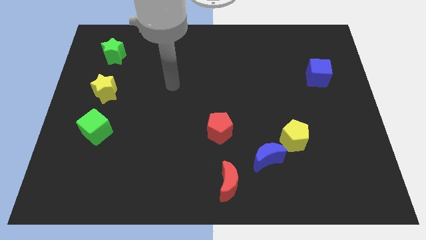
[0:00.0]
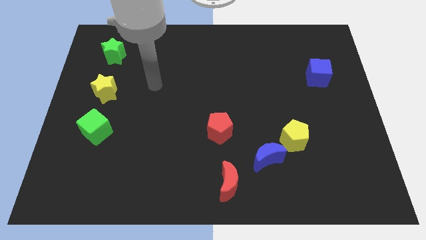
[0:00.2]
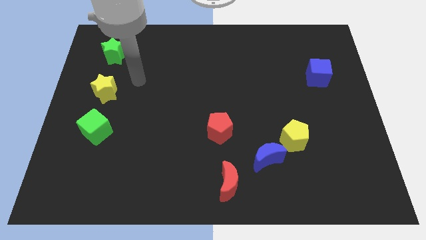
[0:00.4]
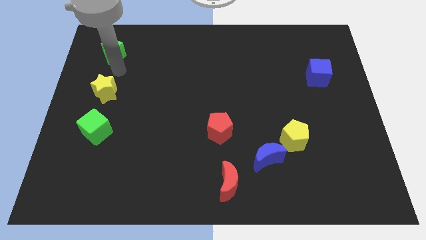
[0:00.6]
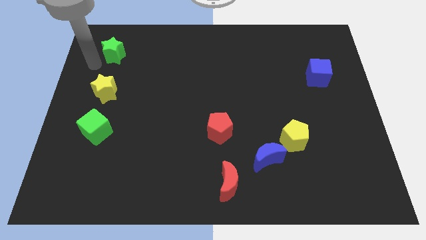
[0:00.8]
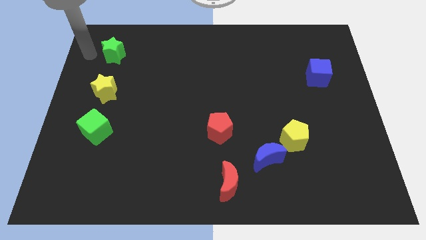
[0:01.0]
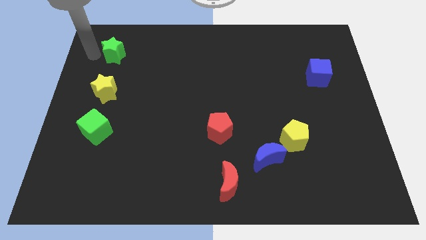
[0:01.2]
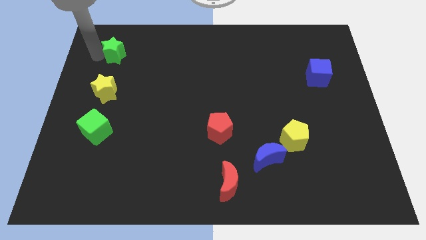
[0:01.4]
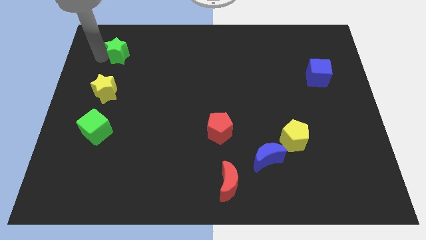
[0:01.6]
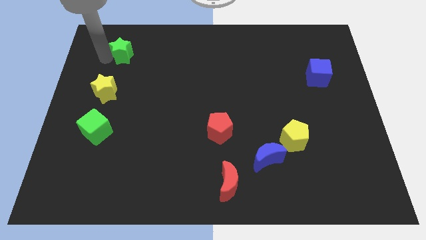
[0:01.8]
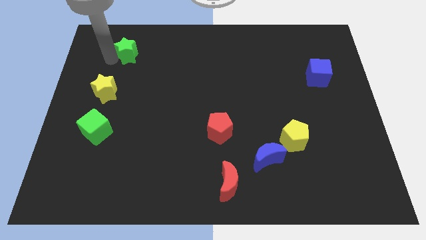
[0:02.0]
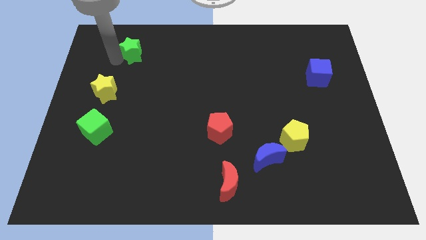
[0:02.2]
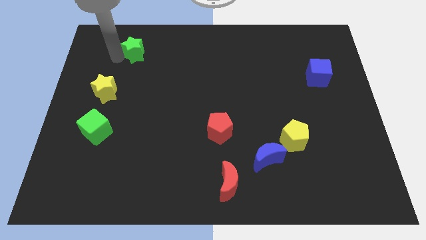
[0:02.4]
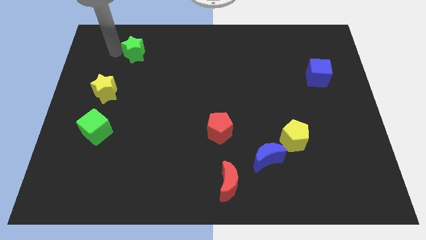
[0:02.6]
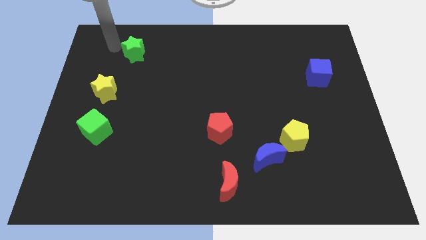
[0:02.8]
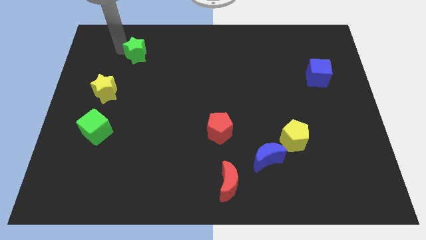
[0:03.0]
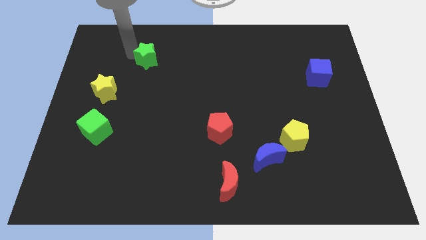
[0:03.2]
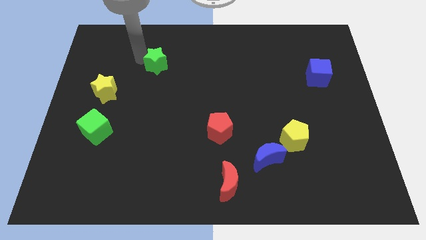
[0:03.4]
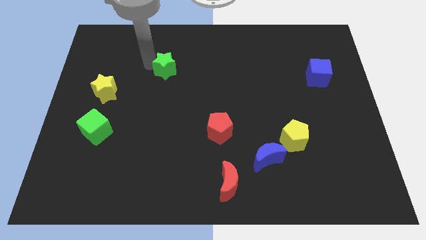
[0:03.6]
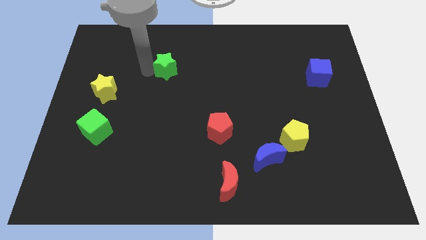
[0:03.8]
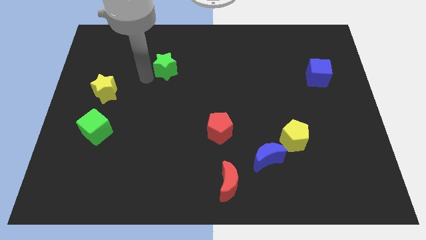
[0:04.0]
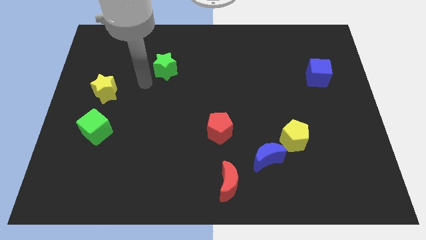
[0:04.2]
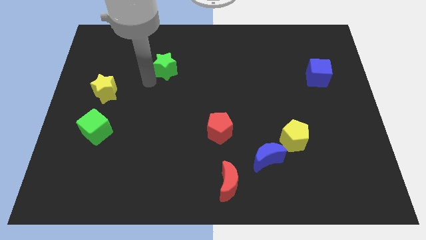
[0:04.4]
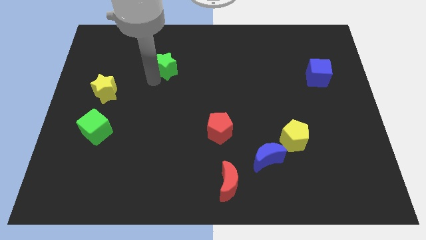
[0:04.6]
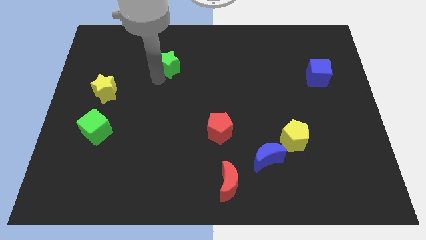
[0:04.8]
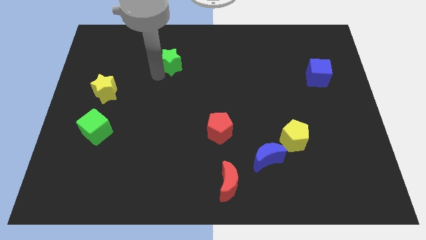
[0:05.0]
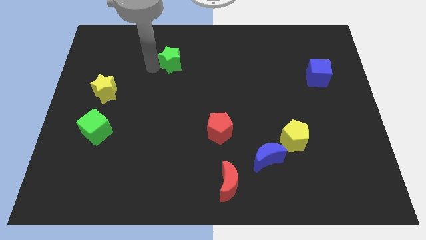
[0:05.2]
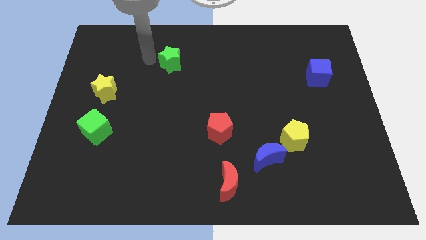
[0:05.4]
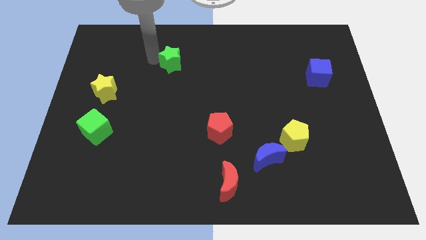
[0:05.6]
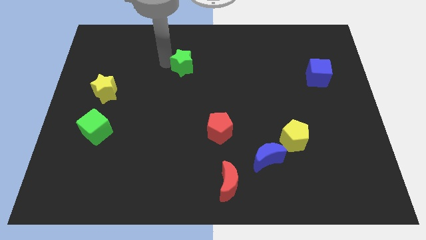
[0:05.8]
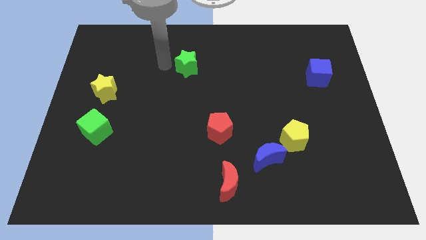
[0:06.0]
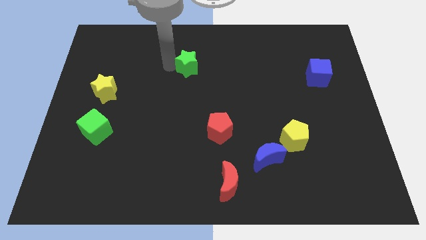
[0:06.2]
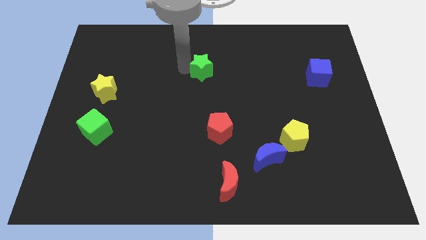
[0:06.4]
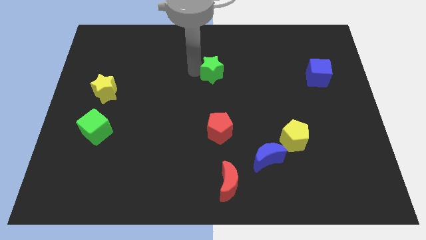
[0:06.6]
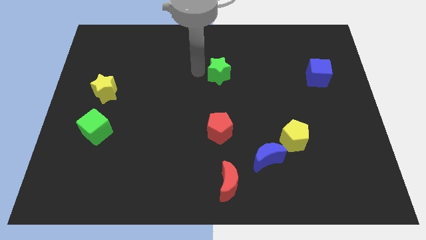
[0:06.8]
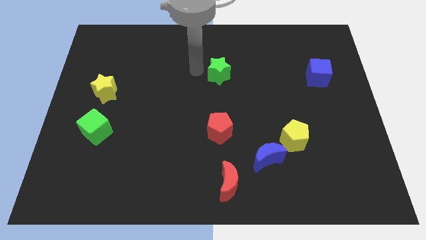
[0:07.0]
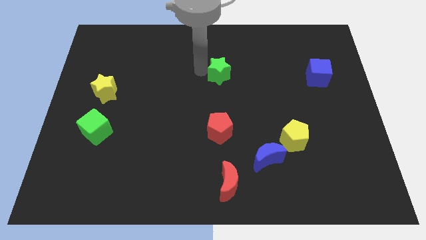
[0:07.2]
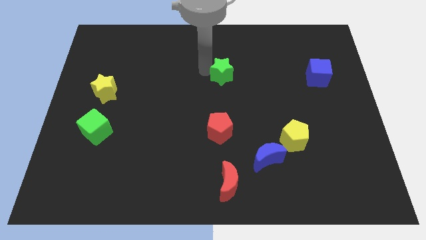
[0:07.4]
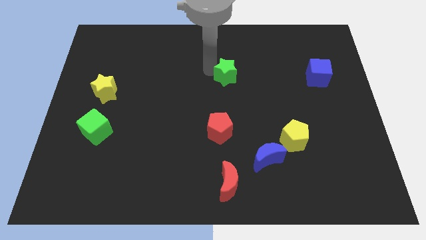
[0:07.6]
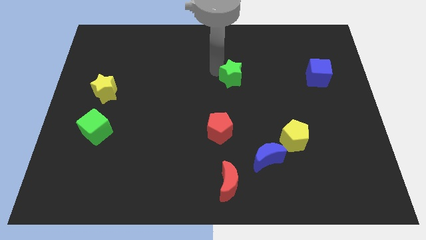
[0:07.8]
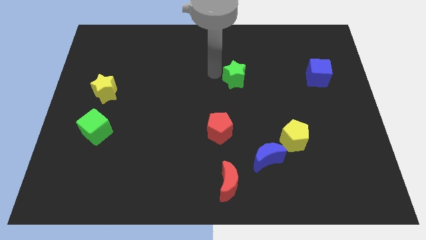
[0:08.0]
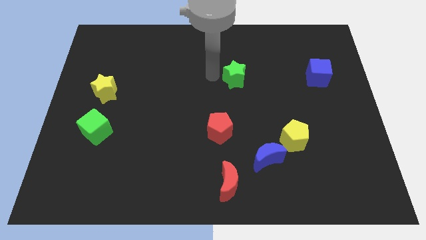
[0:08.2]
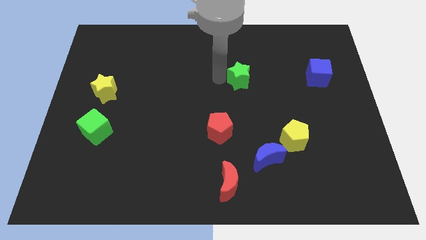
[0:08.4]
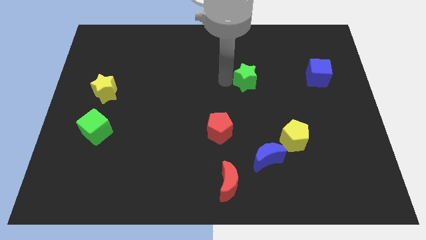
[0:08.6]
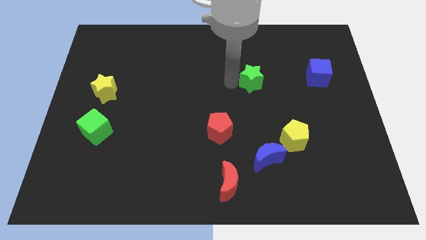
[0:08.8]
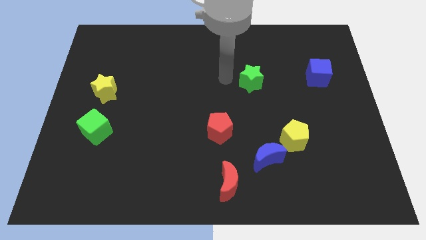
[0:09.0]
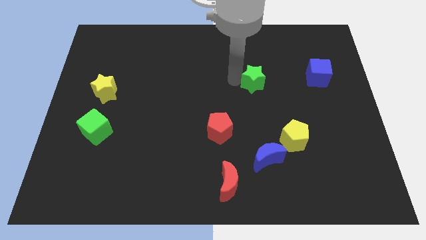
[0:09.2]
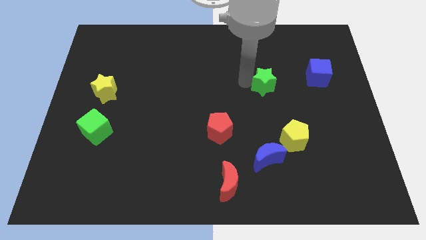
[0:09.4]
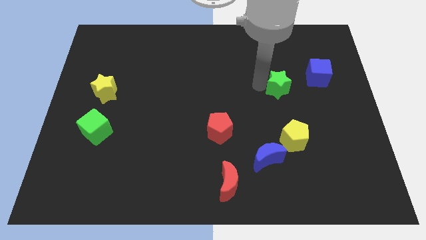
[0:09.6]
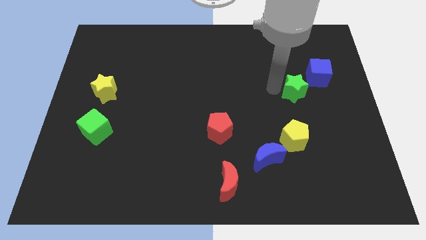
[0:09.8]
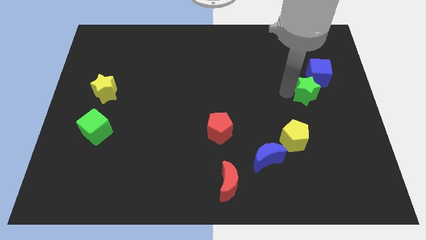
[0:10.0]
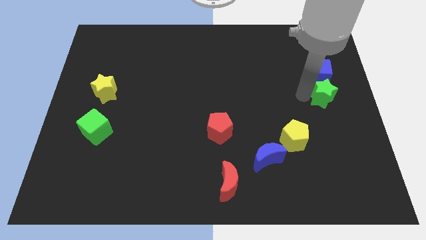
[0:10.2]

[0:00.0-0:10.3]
move the green star to the center right

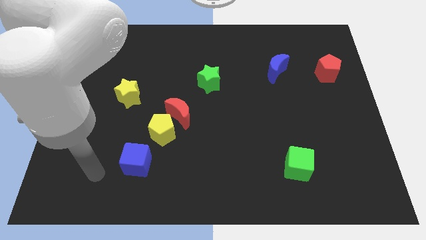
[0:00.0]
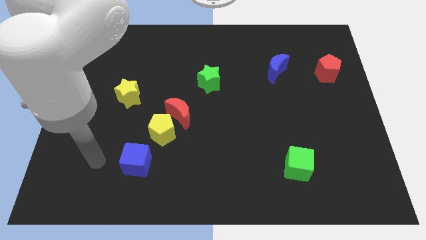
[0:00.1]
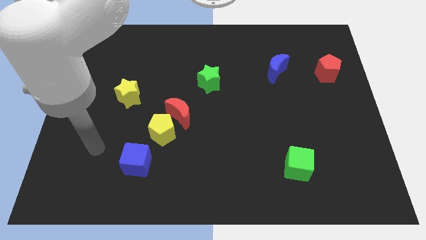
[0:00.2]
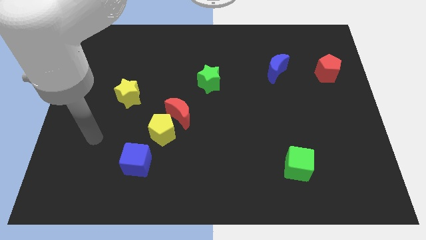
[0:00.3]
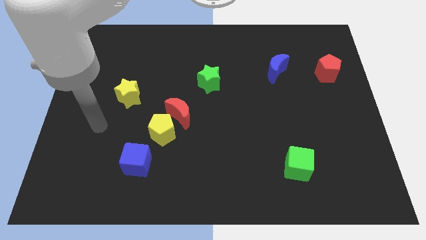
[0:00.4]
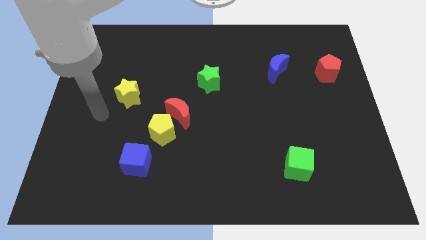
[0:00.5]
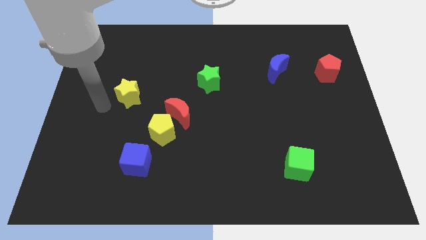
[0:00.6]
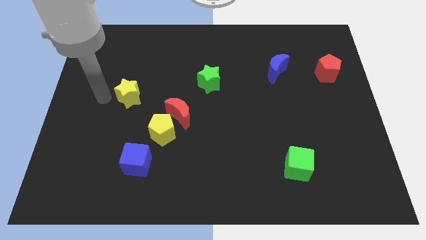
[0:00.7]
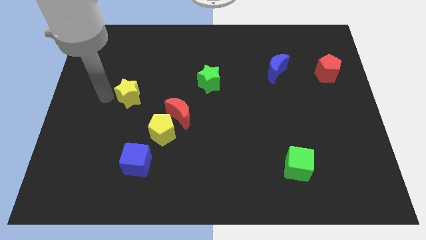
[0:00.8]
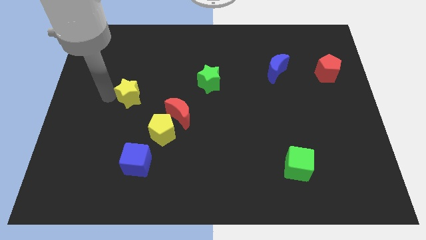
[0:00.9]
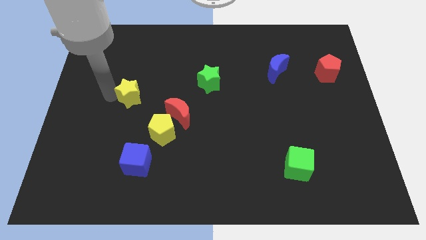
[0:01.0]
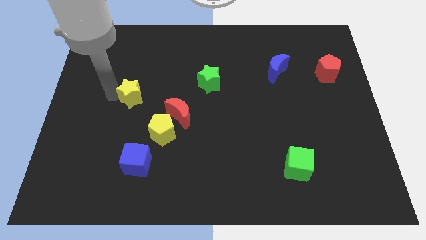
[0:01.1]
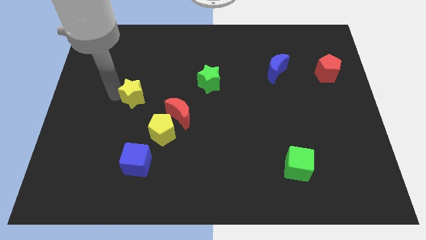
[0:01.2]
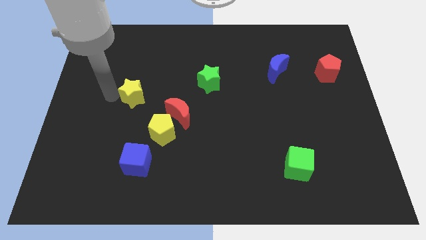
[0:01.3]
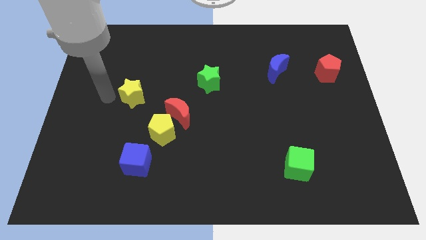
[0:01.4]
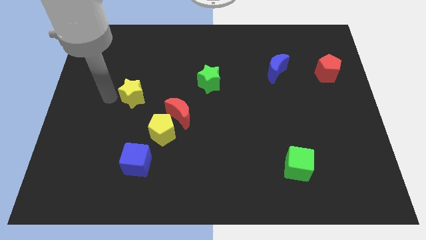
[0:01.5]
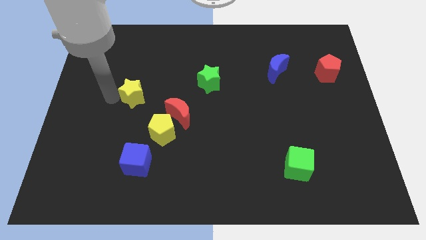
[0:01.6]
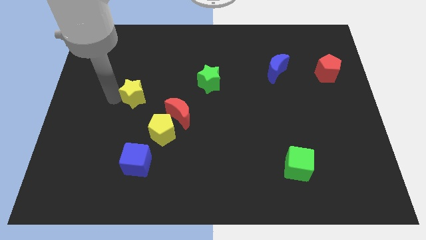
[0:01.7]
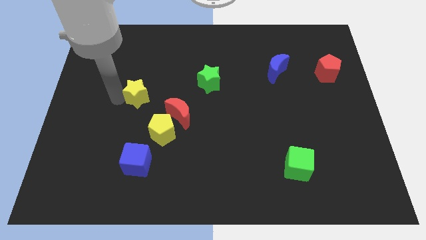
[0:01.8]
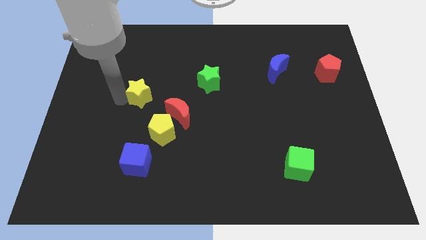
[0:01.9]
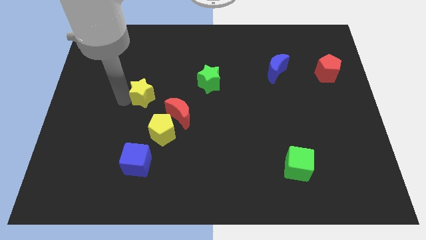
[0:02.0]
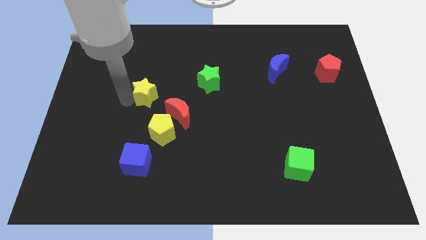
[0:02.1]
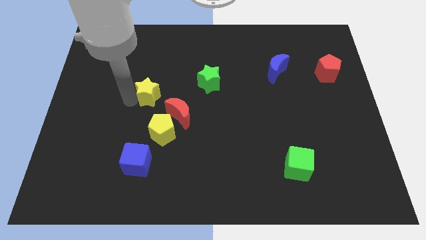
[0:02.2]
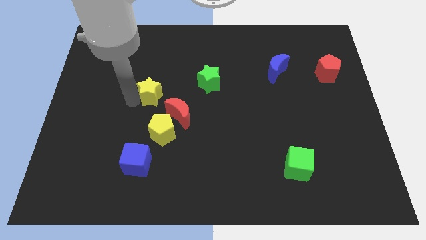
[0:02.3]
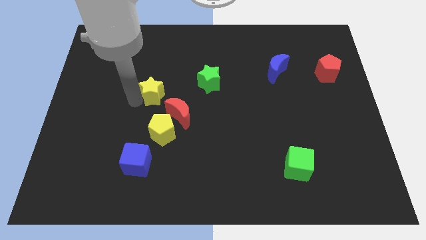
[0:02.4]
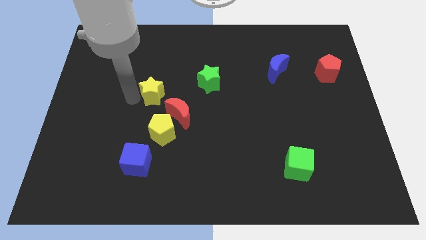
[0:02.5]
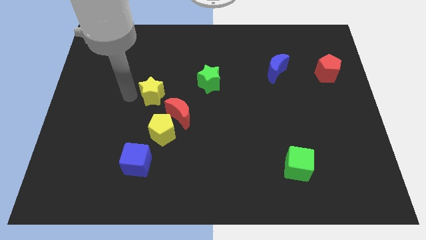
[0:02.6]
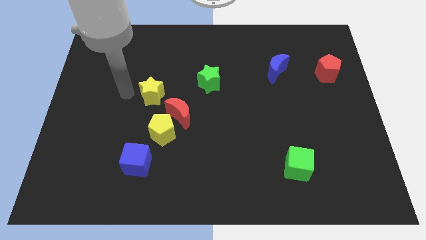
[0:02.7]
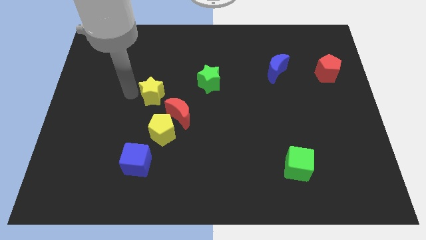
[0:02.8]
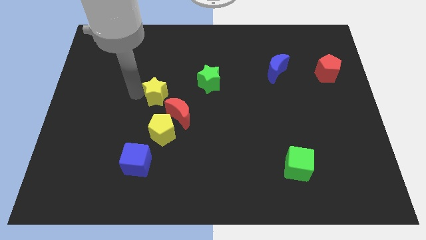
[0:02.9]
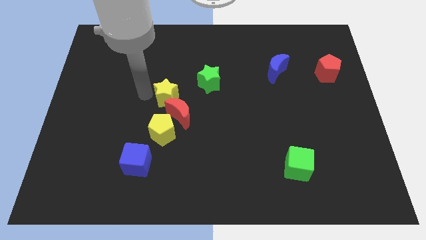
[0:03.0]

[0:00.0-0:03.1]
slide the yellow star to the middle of the board
